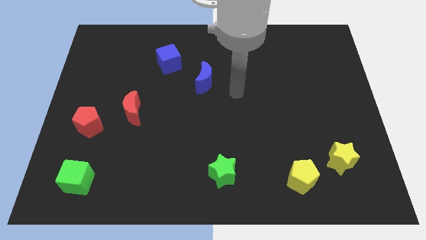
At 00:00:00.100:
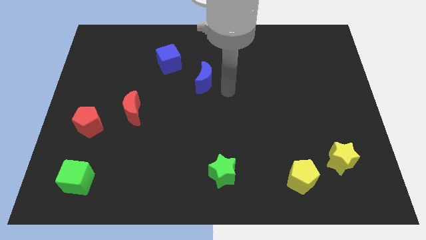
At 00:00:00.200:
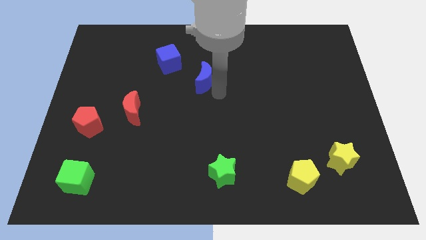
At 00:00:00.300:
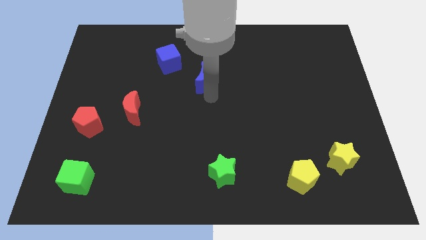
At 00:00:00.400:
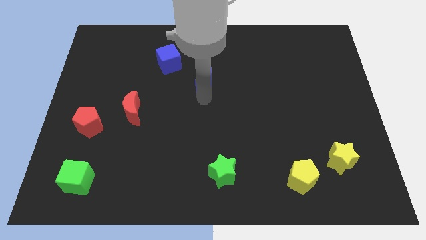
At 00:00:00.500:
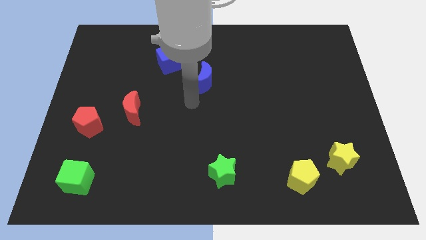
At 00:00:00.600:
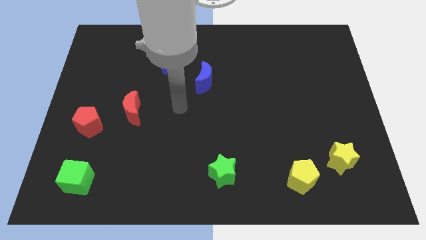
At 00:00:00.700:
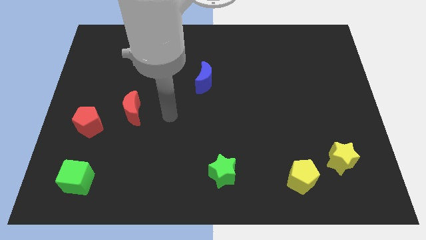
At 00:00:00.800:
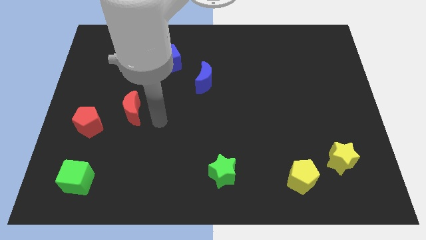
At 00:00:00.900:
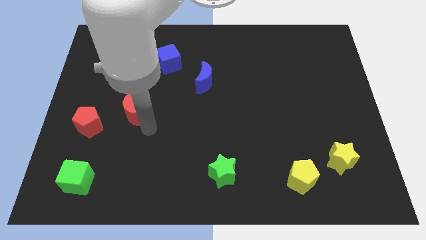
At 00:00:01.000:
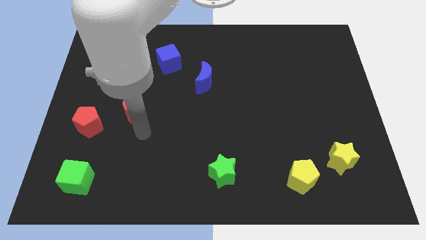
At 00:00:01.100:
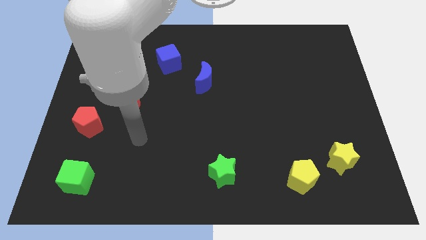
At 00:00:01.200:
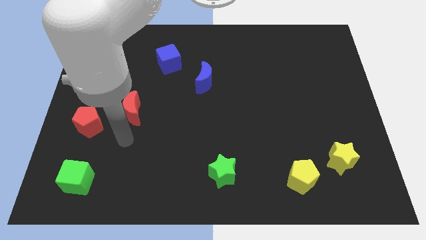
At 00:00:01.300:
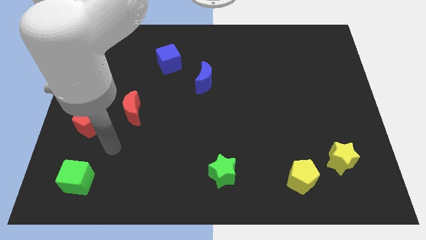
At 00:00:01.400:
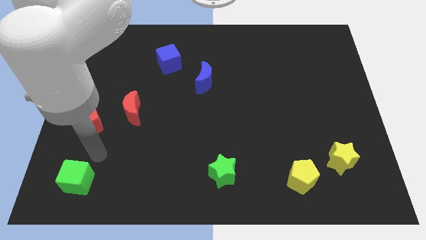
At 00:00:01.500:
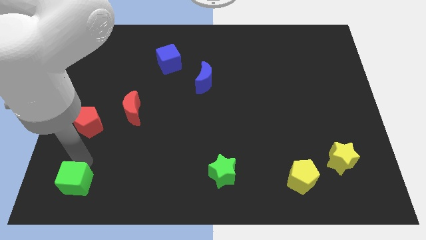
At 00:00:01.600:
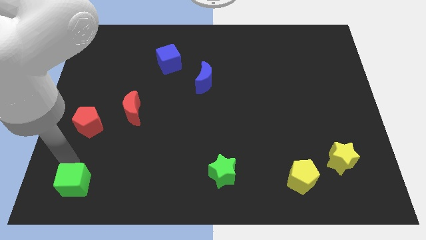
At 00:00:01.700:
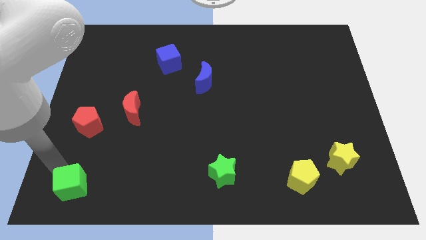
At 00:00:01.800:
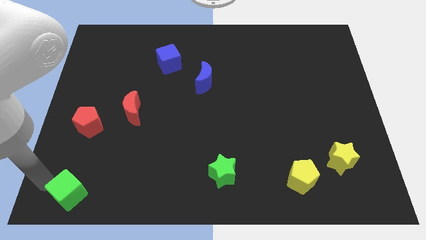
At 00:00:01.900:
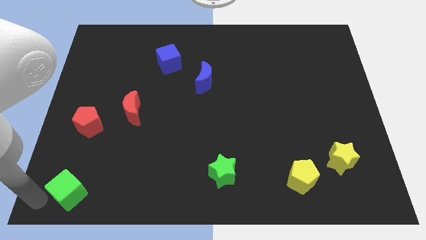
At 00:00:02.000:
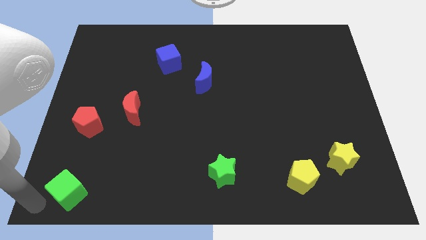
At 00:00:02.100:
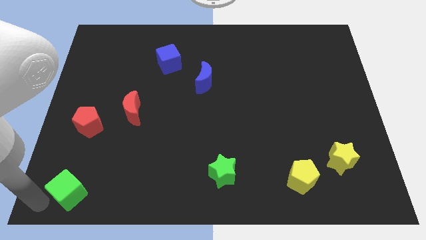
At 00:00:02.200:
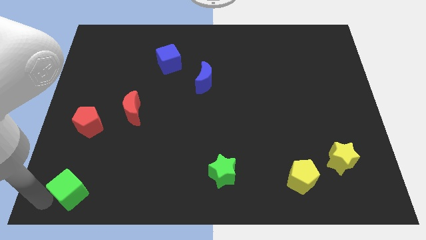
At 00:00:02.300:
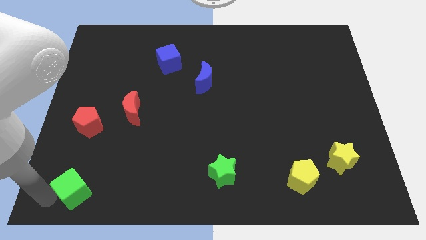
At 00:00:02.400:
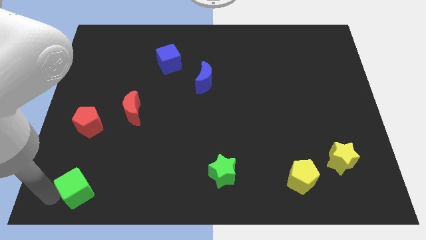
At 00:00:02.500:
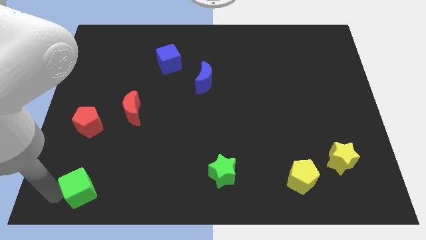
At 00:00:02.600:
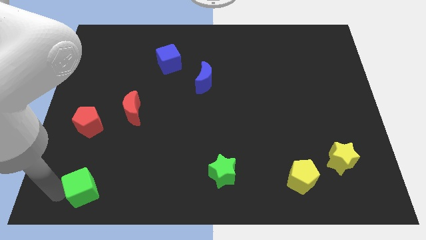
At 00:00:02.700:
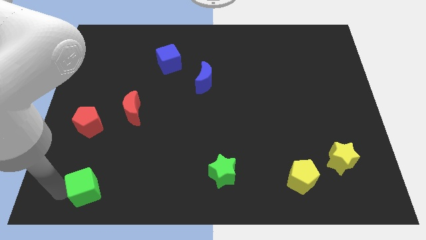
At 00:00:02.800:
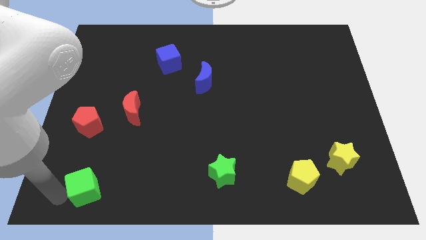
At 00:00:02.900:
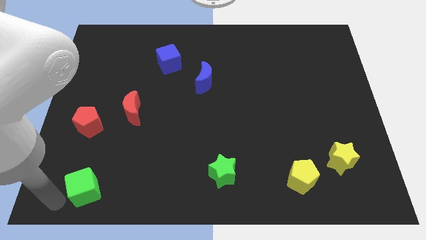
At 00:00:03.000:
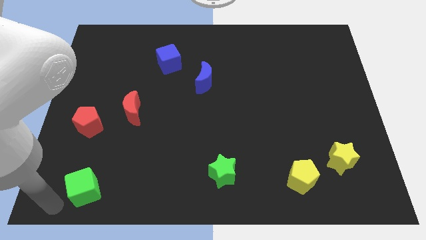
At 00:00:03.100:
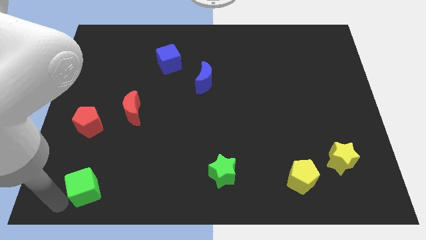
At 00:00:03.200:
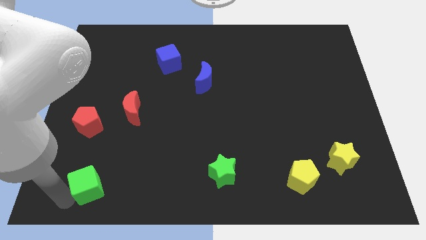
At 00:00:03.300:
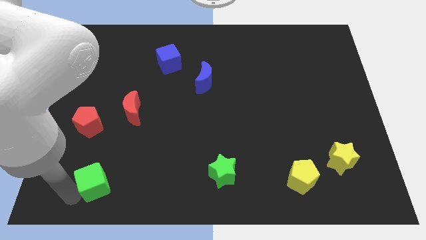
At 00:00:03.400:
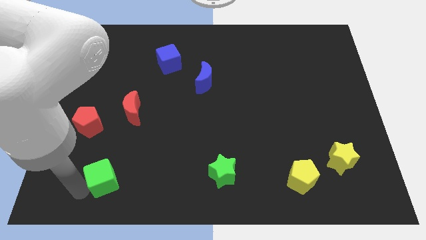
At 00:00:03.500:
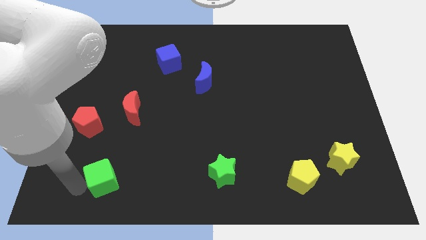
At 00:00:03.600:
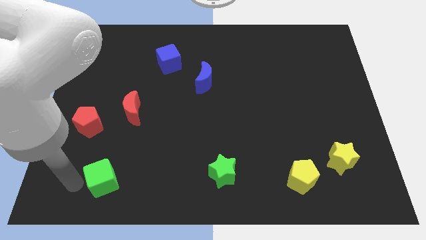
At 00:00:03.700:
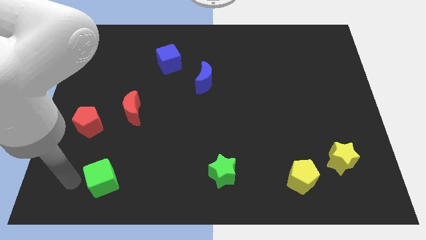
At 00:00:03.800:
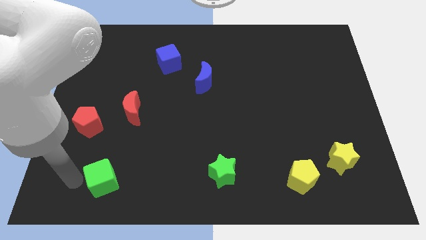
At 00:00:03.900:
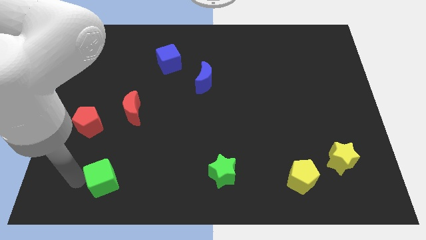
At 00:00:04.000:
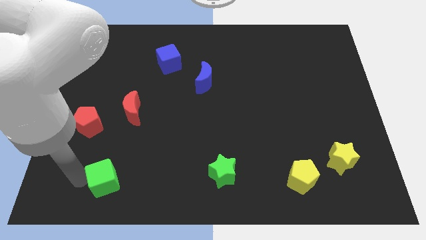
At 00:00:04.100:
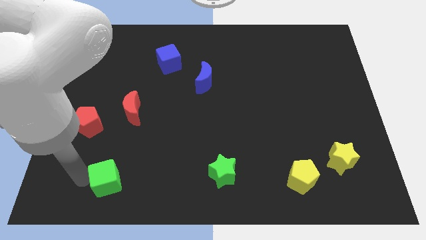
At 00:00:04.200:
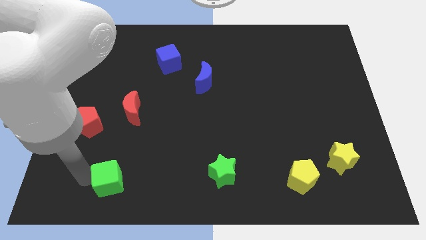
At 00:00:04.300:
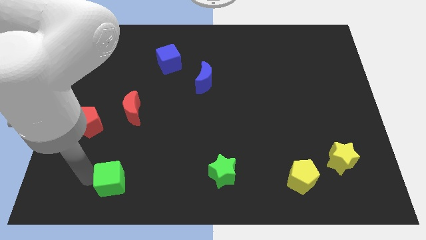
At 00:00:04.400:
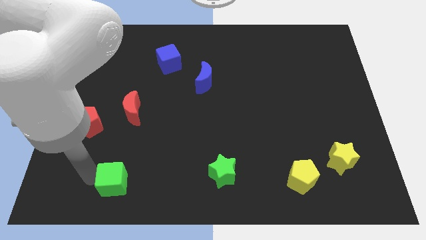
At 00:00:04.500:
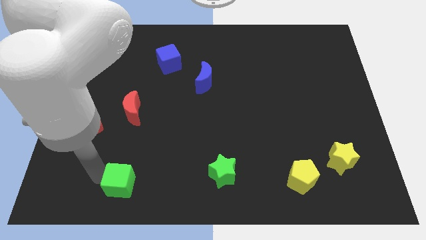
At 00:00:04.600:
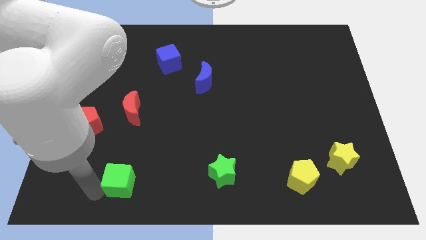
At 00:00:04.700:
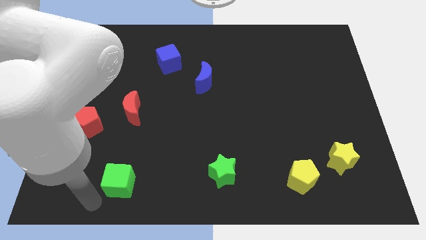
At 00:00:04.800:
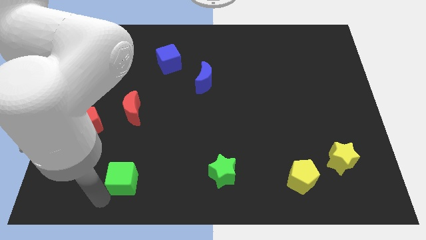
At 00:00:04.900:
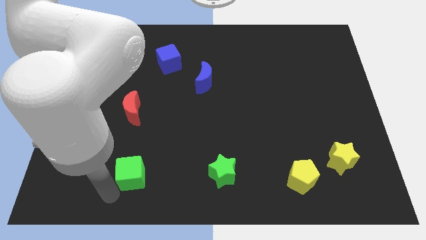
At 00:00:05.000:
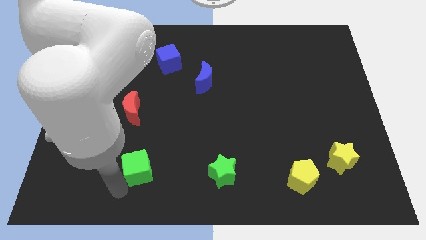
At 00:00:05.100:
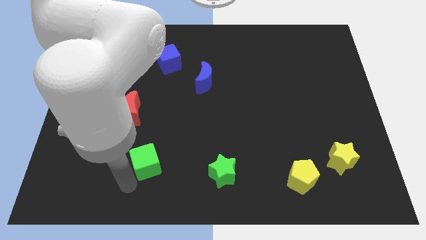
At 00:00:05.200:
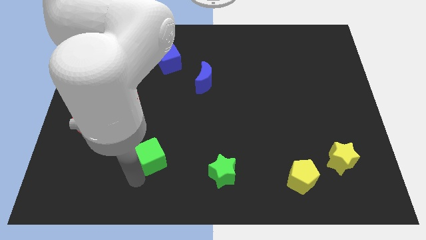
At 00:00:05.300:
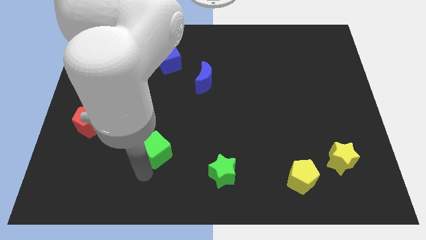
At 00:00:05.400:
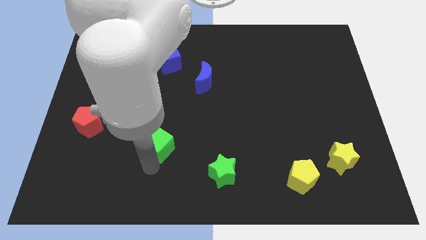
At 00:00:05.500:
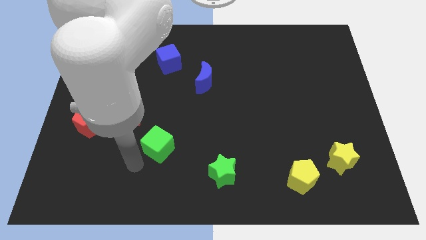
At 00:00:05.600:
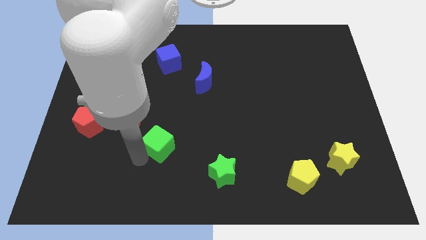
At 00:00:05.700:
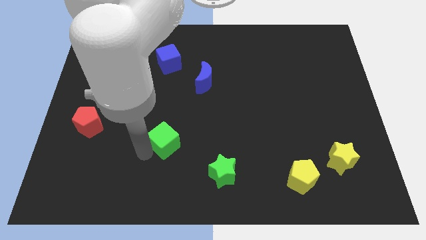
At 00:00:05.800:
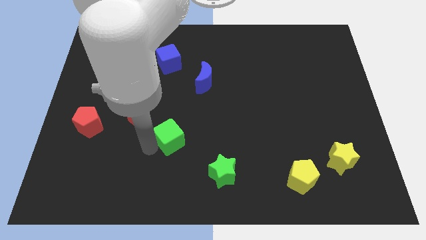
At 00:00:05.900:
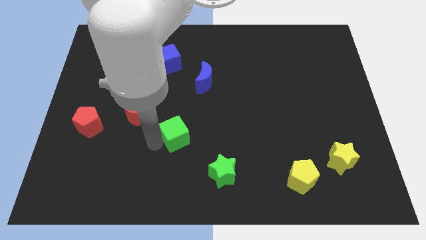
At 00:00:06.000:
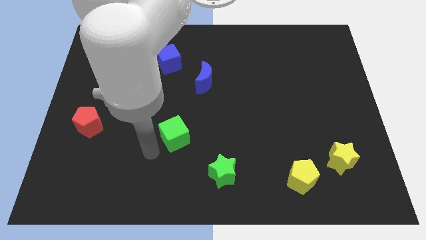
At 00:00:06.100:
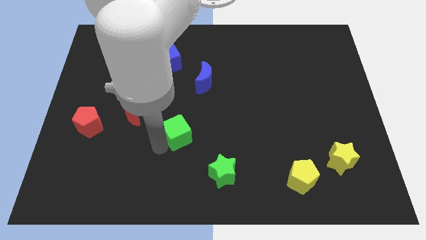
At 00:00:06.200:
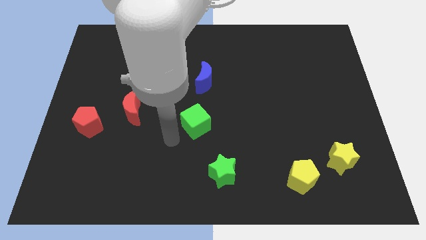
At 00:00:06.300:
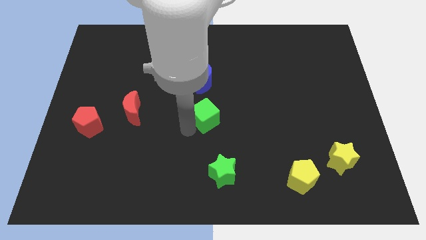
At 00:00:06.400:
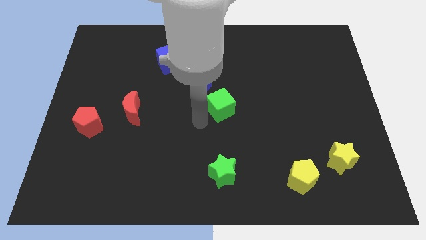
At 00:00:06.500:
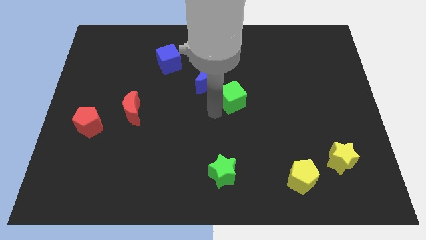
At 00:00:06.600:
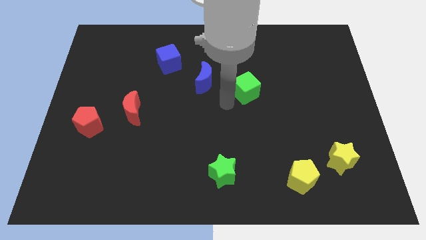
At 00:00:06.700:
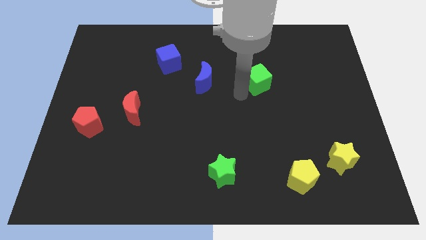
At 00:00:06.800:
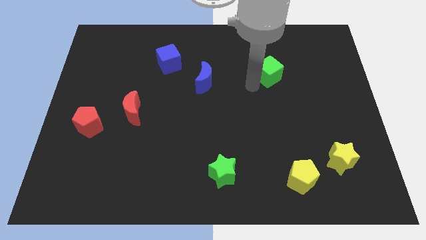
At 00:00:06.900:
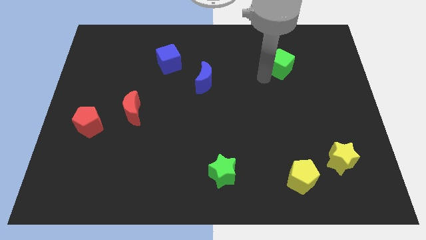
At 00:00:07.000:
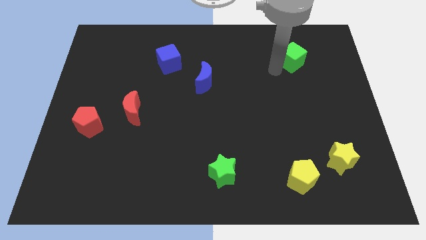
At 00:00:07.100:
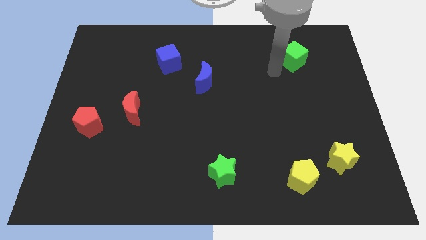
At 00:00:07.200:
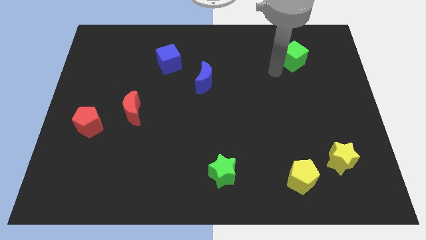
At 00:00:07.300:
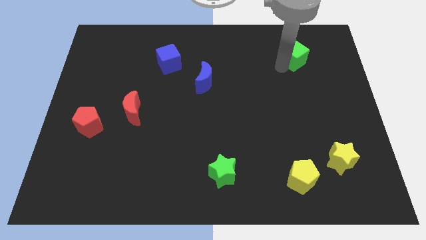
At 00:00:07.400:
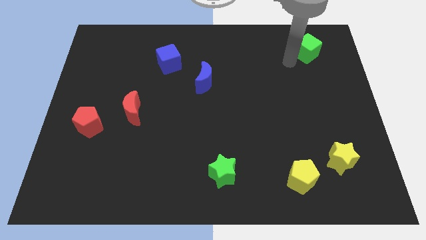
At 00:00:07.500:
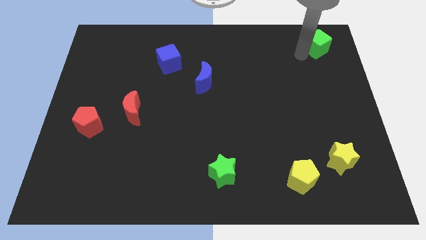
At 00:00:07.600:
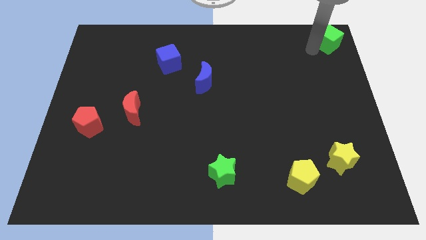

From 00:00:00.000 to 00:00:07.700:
slide the green cube to the top right
